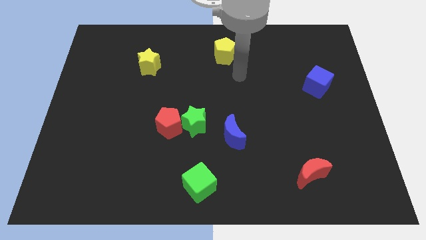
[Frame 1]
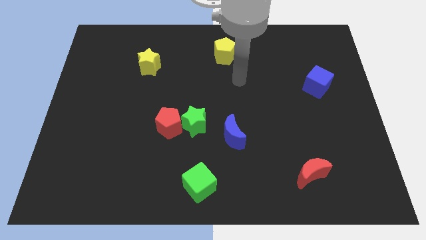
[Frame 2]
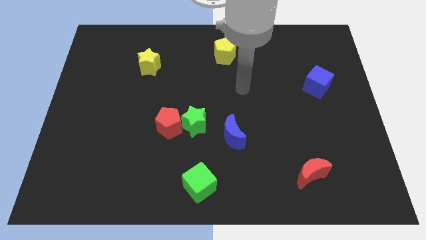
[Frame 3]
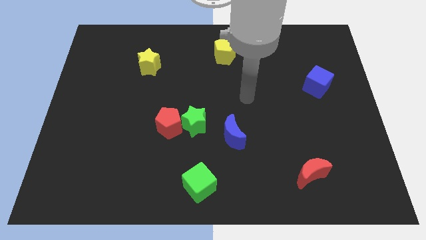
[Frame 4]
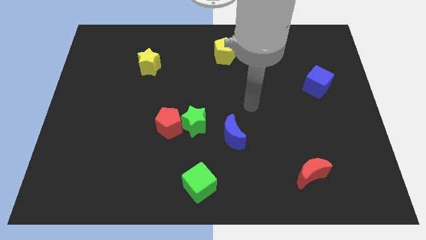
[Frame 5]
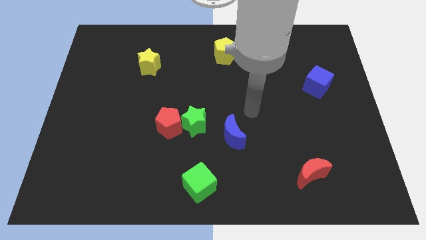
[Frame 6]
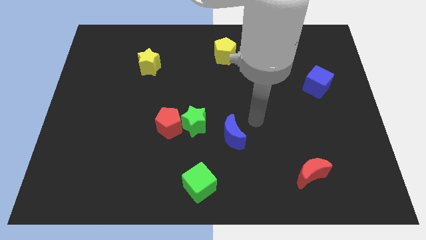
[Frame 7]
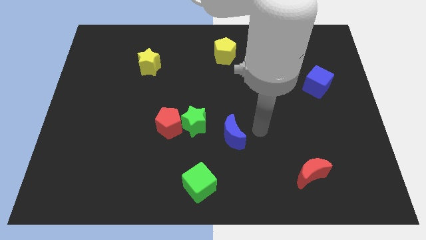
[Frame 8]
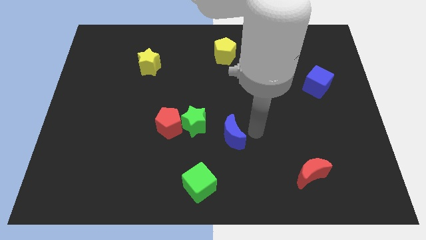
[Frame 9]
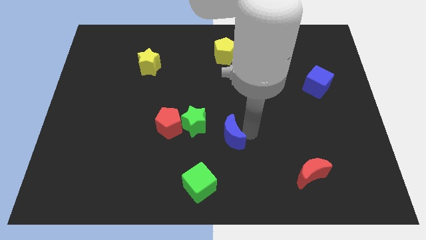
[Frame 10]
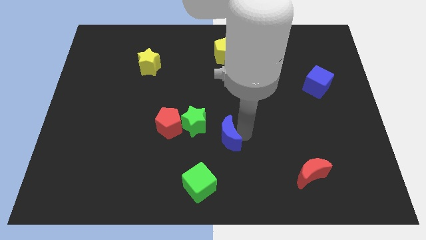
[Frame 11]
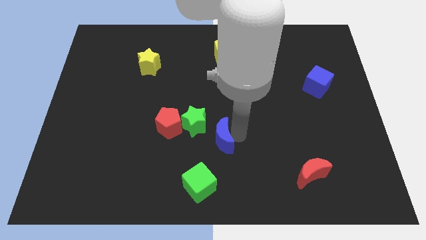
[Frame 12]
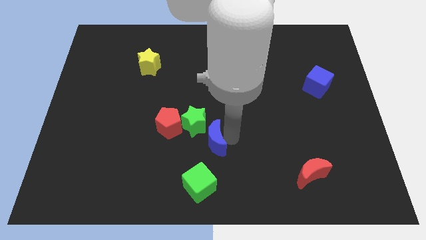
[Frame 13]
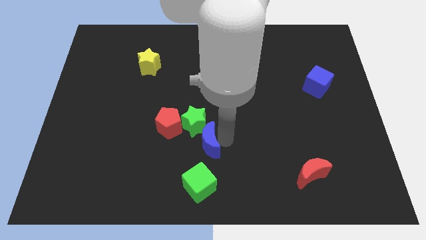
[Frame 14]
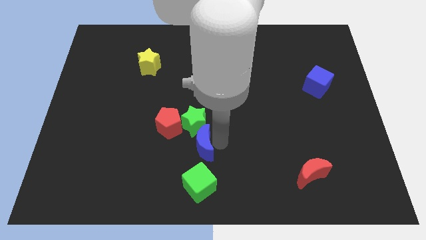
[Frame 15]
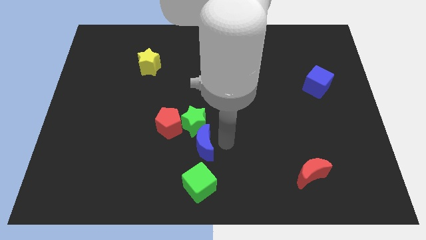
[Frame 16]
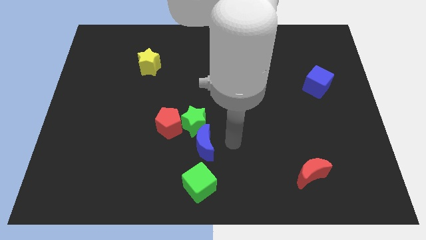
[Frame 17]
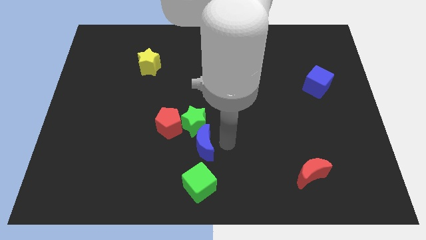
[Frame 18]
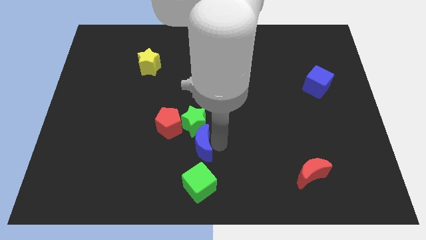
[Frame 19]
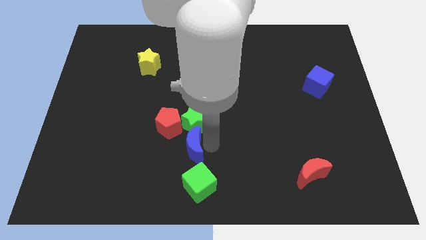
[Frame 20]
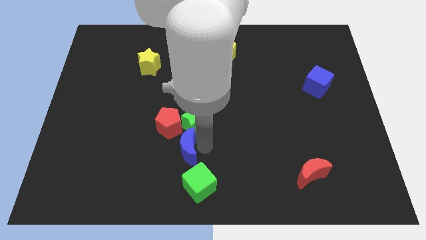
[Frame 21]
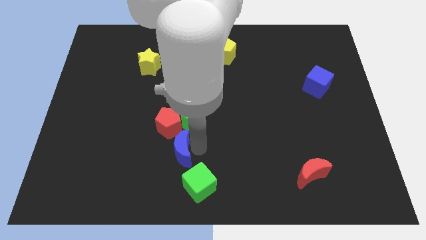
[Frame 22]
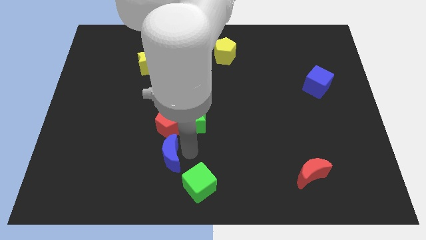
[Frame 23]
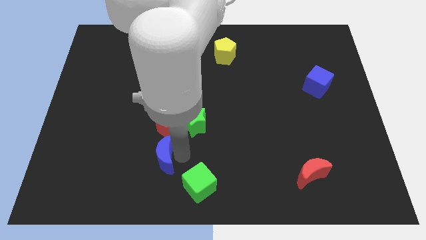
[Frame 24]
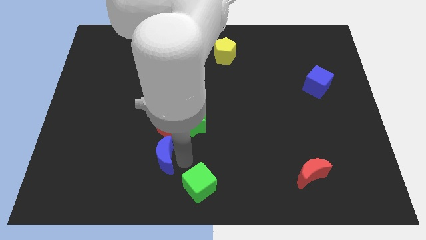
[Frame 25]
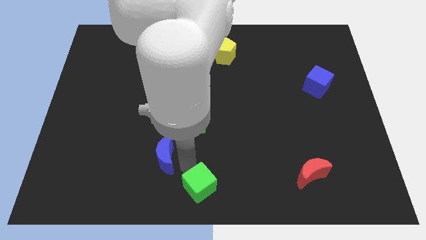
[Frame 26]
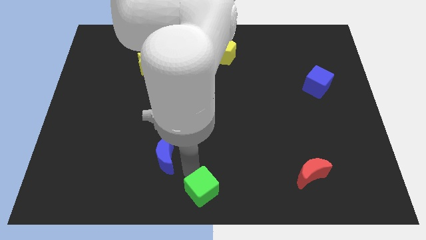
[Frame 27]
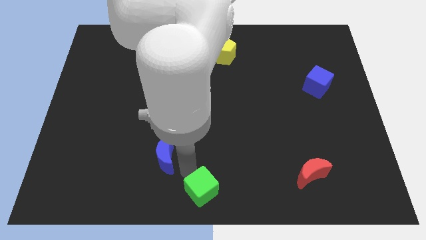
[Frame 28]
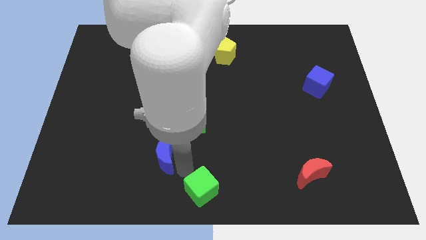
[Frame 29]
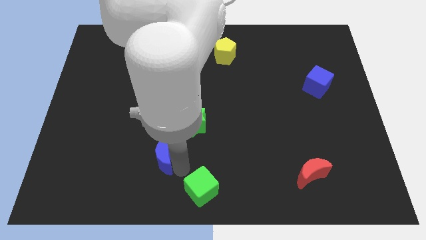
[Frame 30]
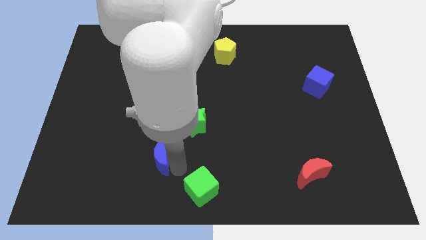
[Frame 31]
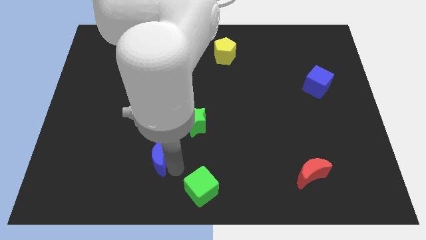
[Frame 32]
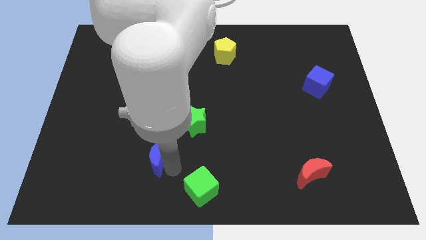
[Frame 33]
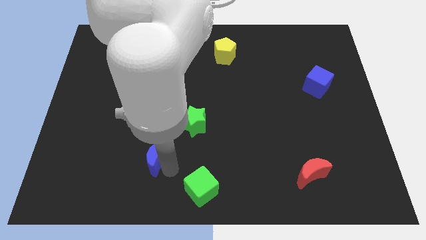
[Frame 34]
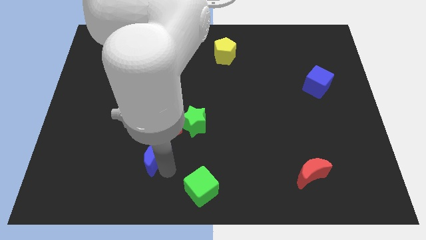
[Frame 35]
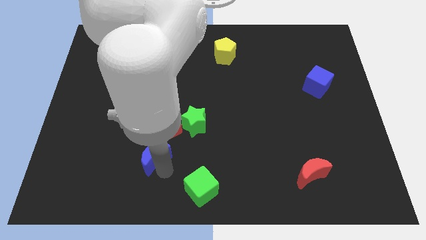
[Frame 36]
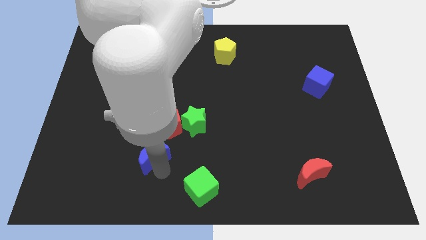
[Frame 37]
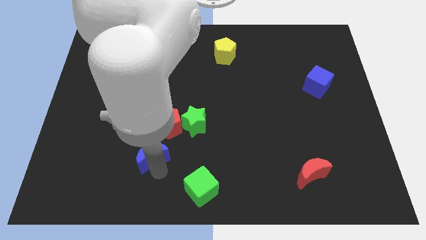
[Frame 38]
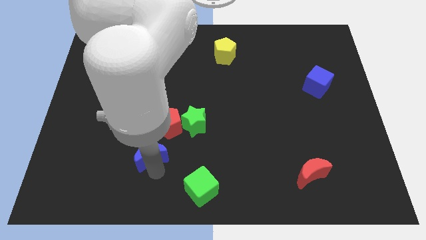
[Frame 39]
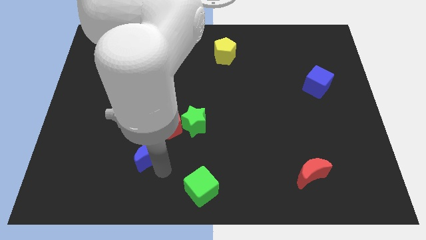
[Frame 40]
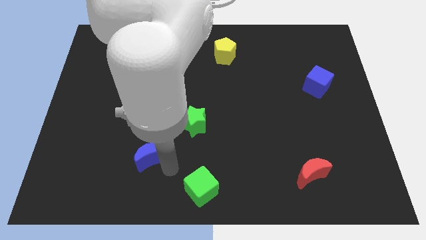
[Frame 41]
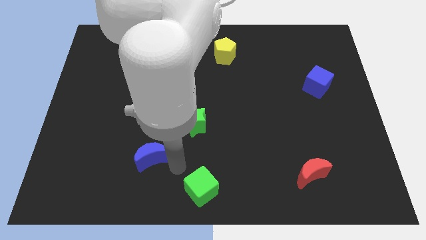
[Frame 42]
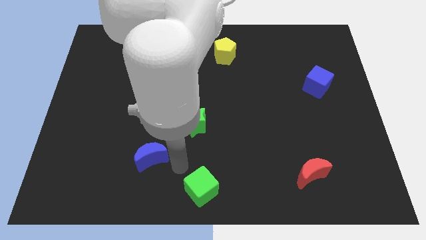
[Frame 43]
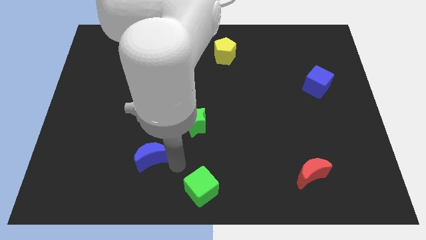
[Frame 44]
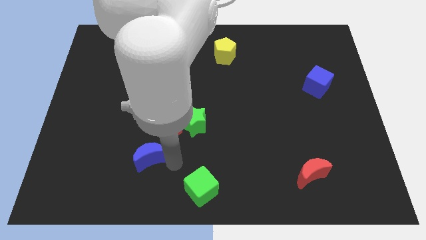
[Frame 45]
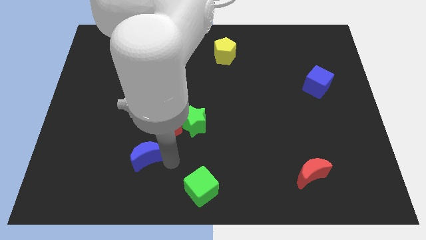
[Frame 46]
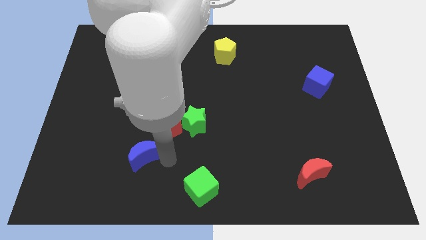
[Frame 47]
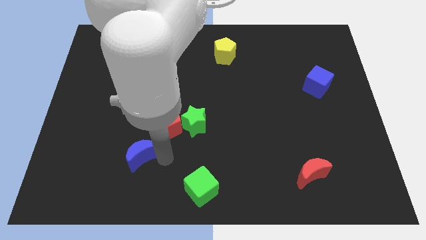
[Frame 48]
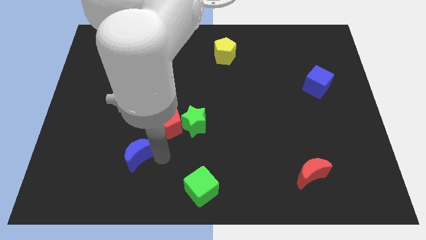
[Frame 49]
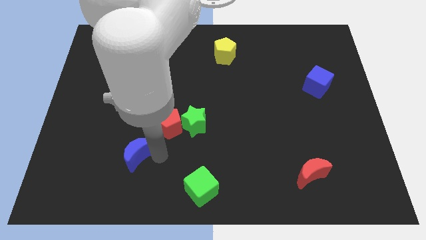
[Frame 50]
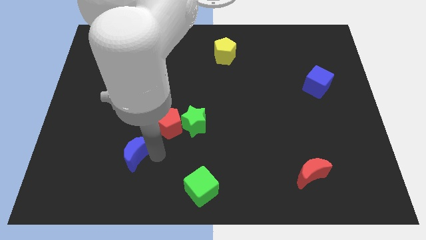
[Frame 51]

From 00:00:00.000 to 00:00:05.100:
push the blue moon to the left

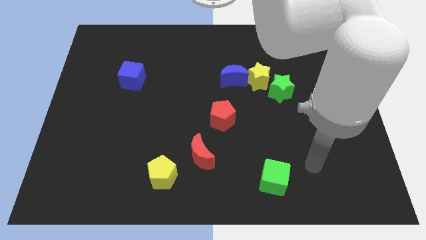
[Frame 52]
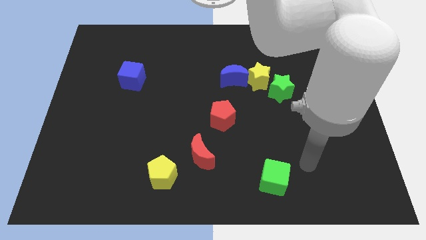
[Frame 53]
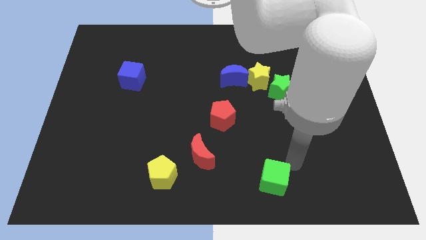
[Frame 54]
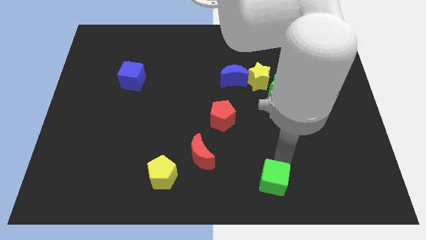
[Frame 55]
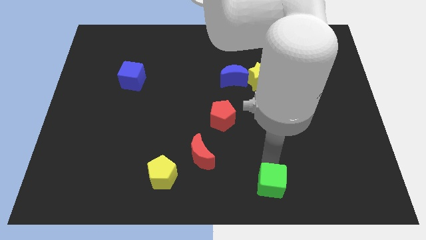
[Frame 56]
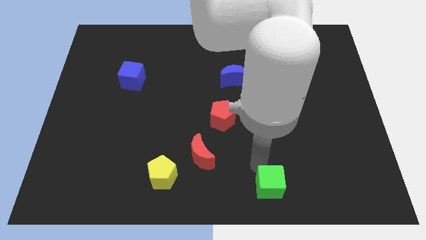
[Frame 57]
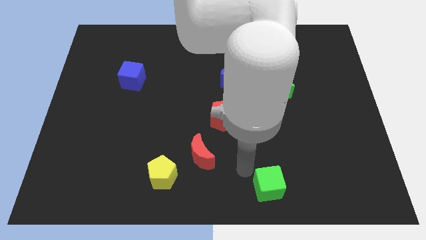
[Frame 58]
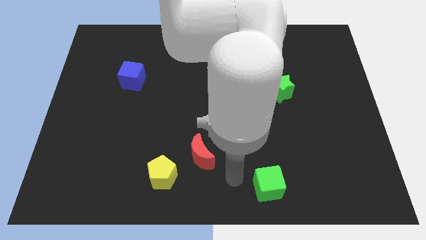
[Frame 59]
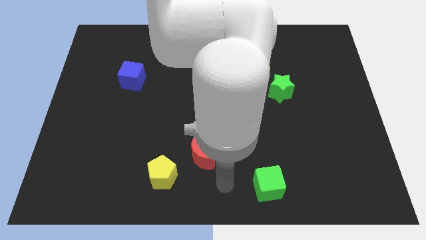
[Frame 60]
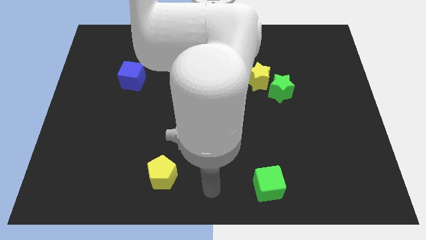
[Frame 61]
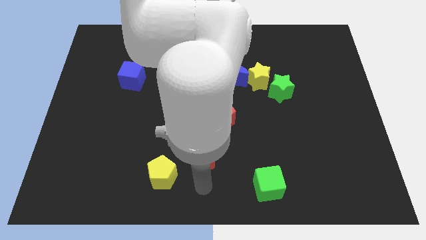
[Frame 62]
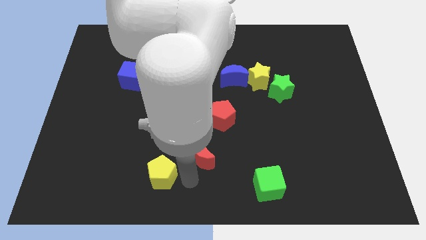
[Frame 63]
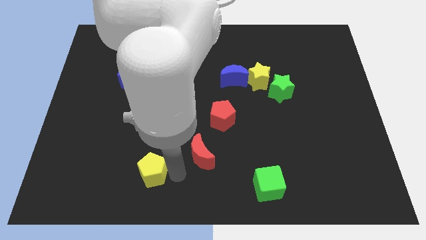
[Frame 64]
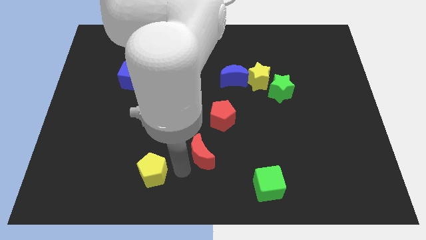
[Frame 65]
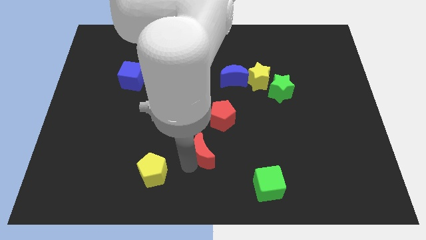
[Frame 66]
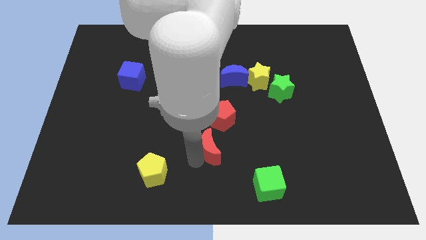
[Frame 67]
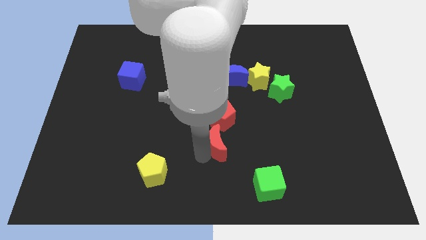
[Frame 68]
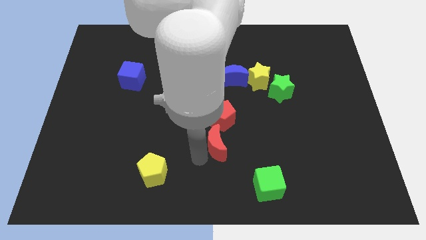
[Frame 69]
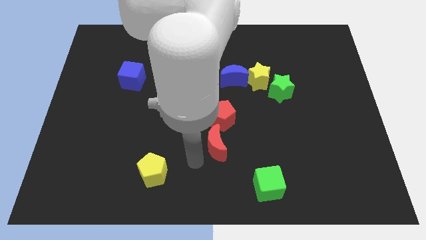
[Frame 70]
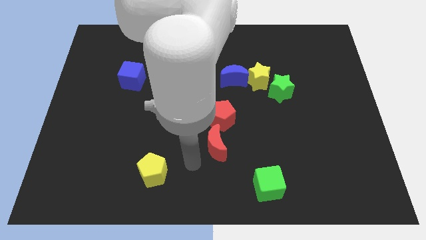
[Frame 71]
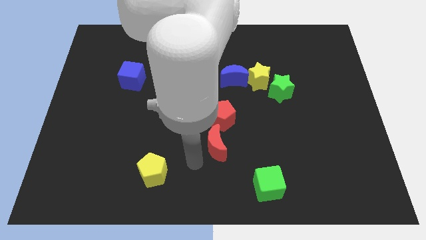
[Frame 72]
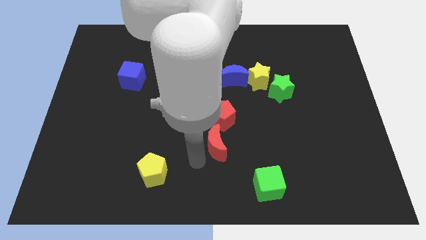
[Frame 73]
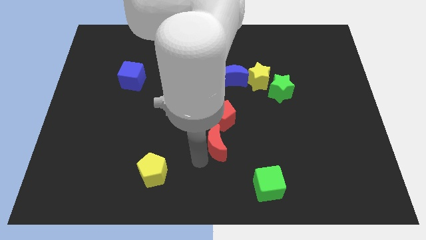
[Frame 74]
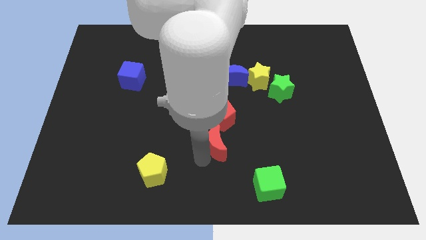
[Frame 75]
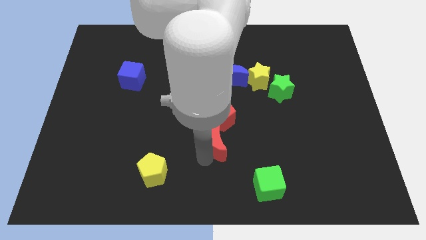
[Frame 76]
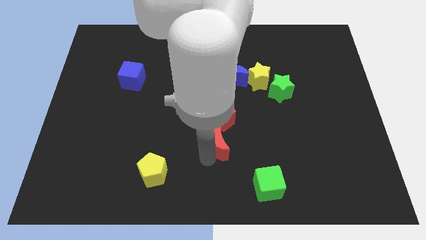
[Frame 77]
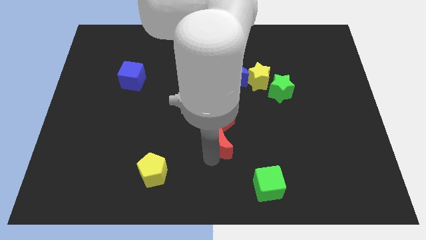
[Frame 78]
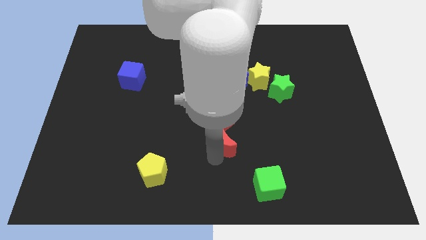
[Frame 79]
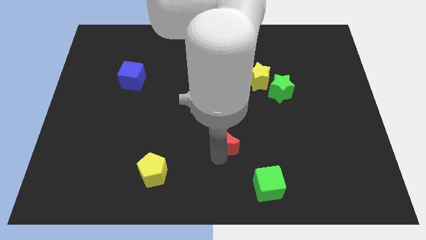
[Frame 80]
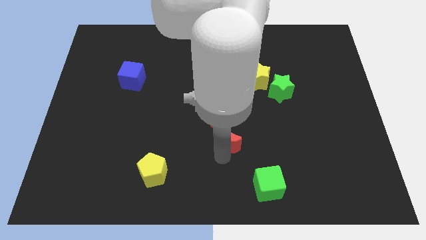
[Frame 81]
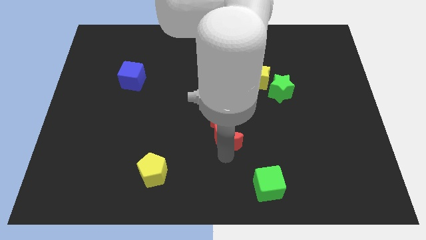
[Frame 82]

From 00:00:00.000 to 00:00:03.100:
slightly slide the red moon diagonally upwards and right
